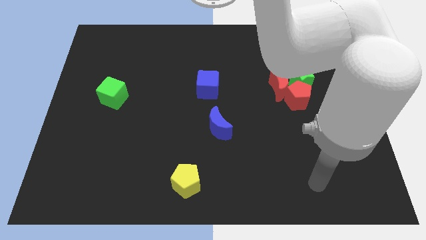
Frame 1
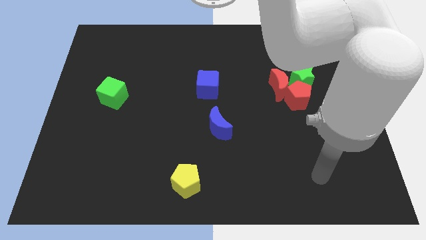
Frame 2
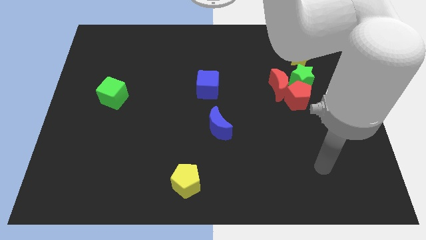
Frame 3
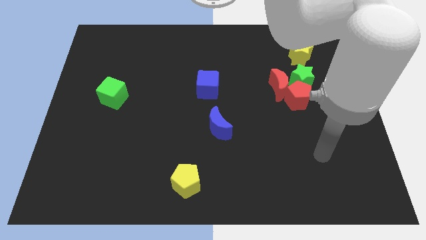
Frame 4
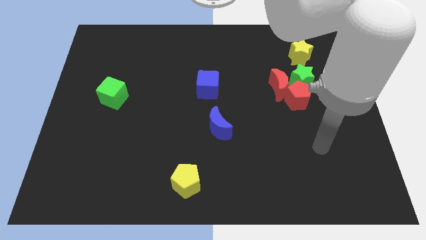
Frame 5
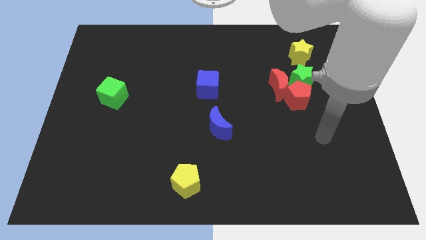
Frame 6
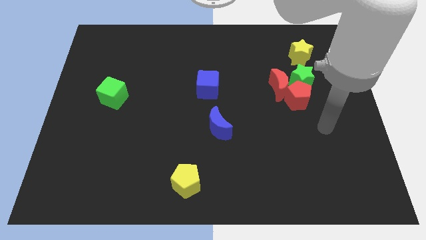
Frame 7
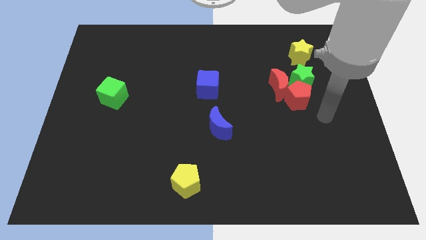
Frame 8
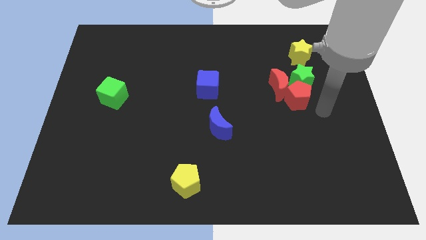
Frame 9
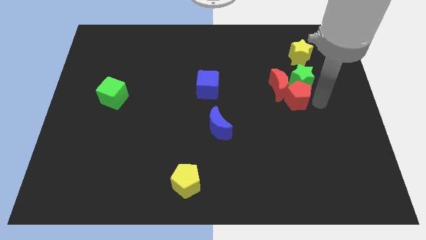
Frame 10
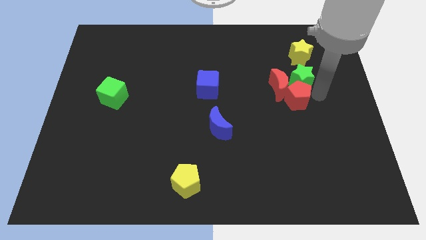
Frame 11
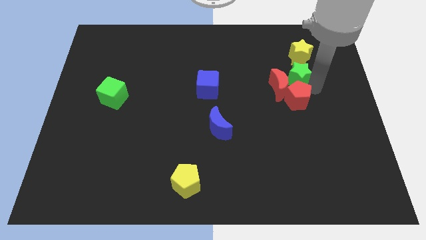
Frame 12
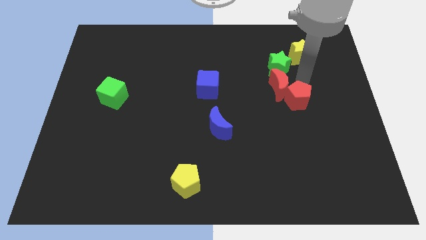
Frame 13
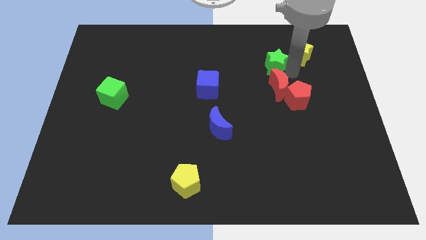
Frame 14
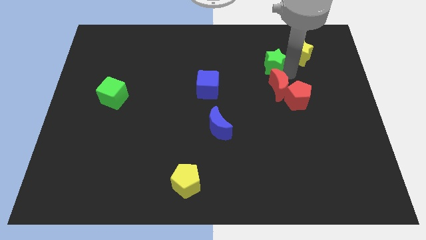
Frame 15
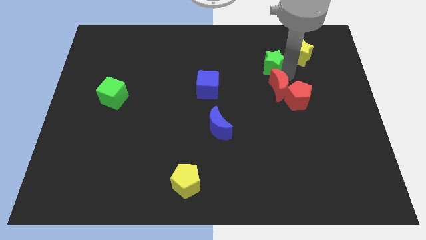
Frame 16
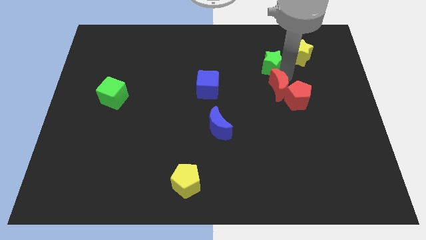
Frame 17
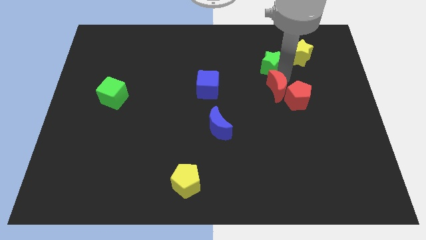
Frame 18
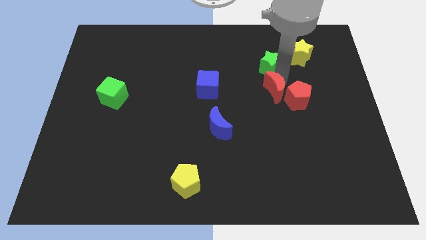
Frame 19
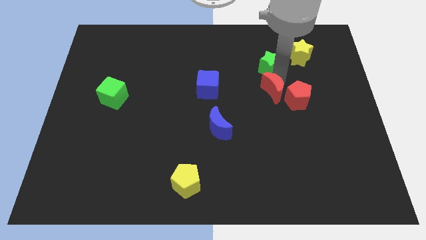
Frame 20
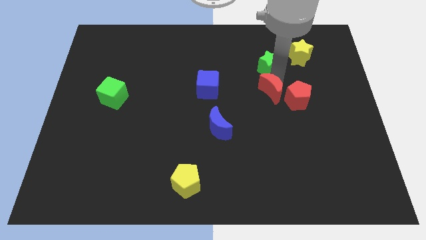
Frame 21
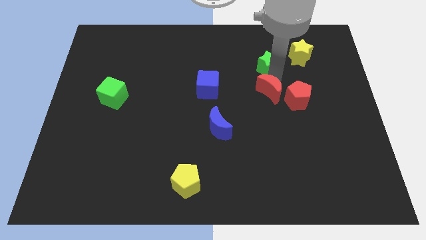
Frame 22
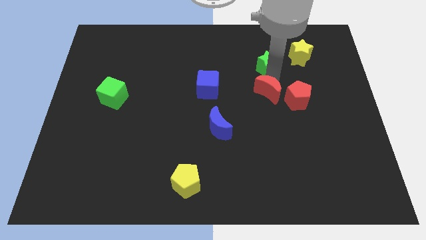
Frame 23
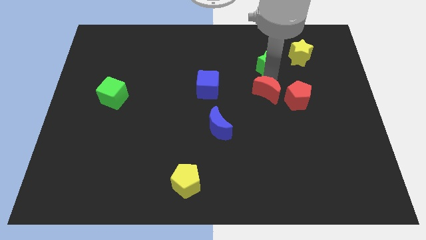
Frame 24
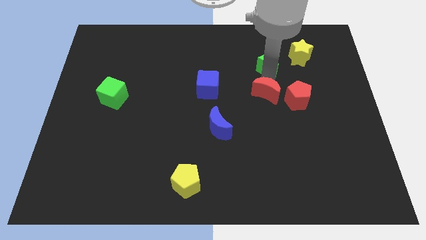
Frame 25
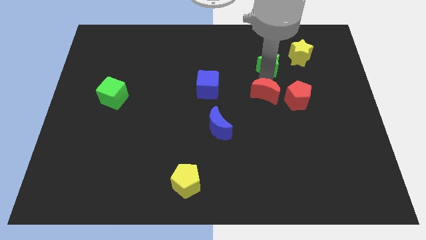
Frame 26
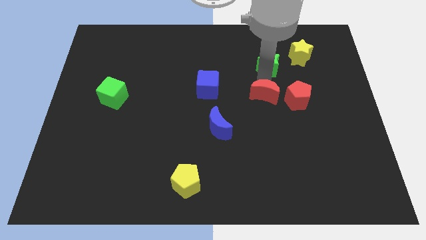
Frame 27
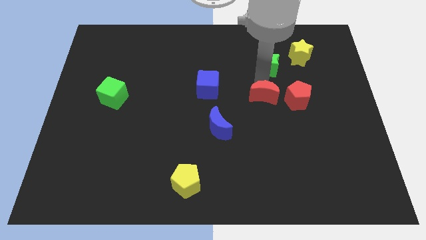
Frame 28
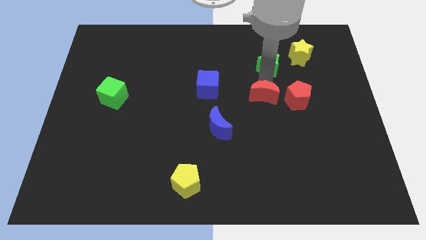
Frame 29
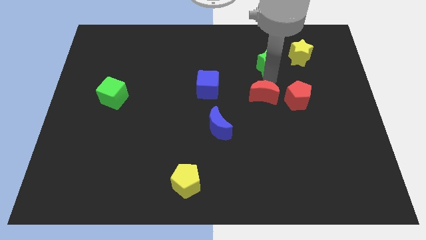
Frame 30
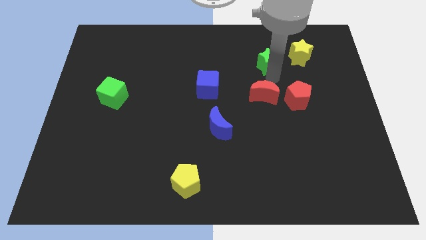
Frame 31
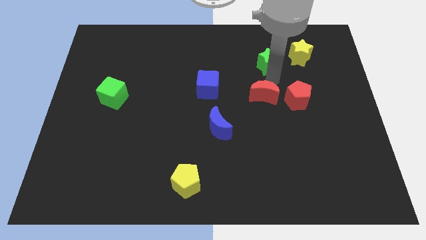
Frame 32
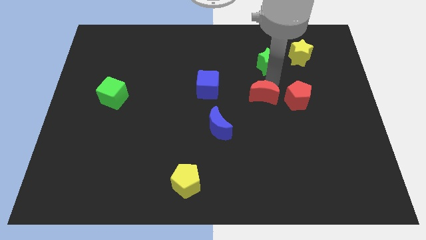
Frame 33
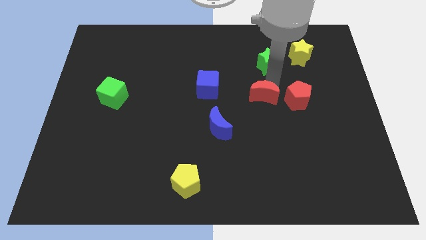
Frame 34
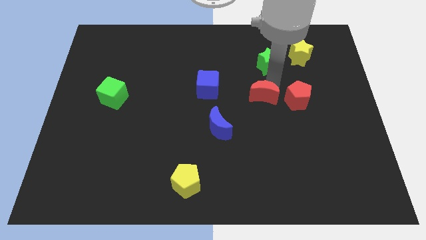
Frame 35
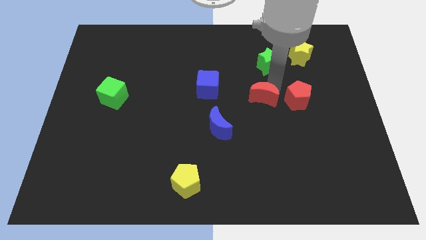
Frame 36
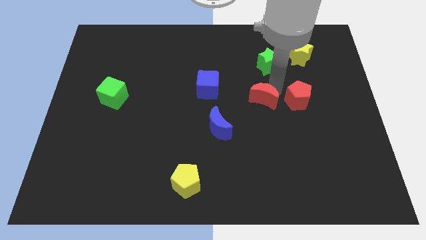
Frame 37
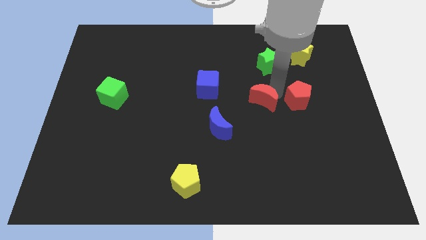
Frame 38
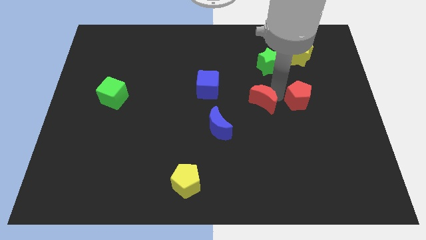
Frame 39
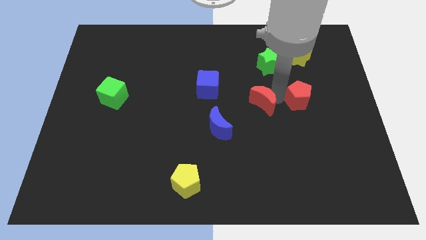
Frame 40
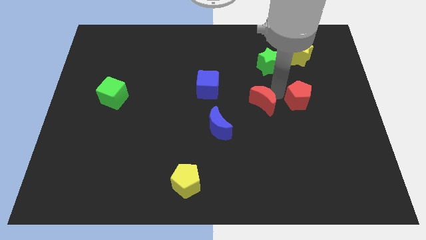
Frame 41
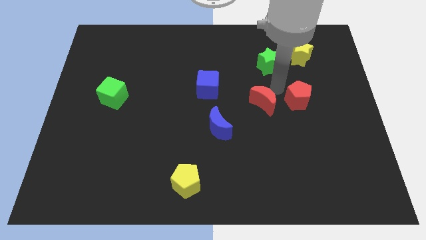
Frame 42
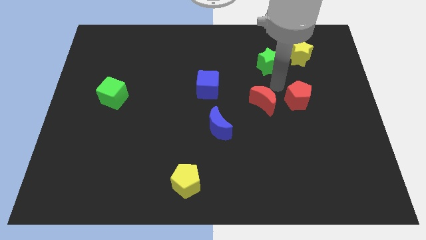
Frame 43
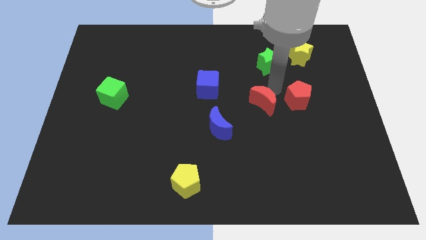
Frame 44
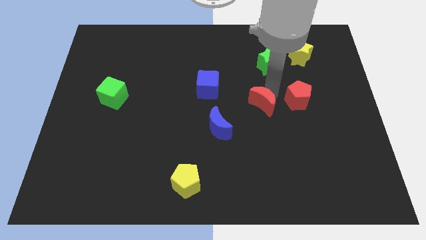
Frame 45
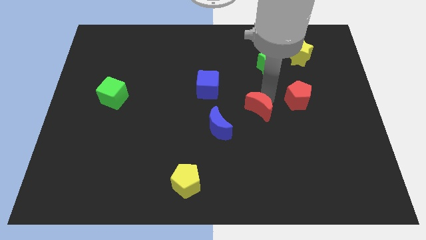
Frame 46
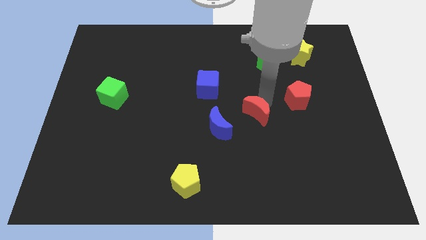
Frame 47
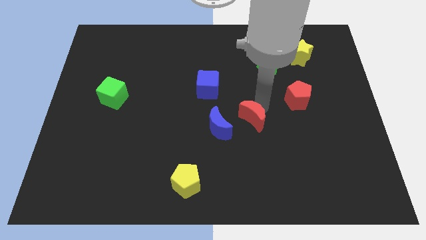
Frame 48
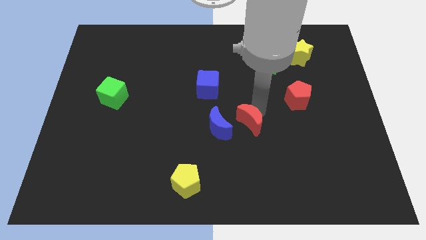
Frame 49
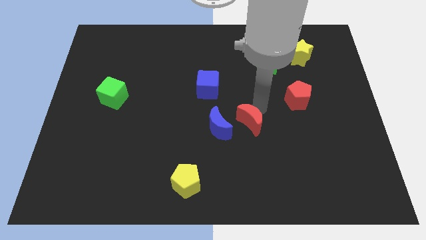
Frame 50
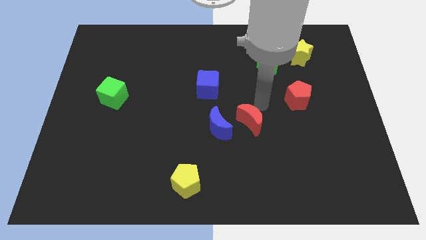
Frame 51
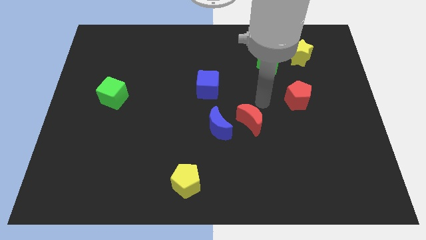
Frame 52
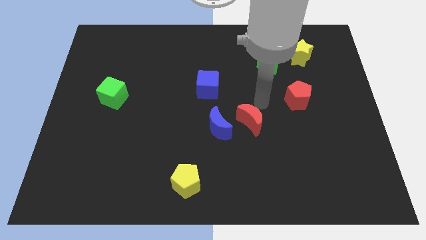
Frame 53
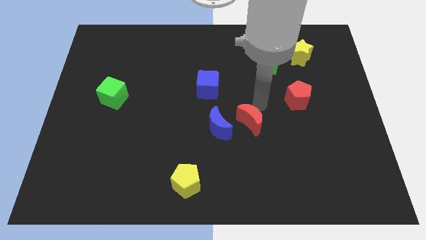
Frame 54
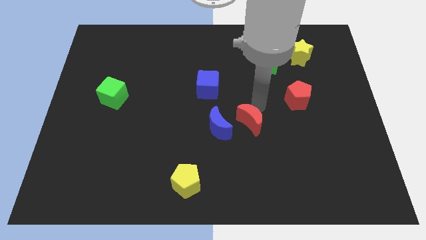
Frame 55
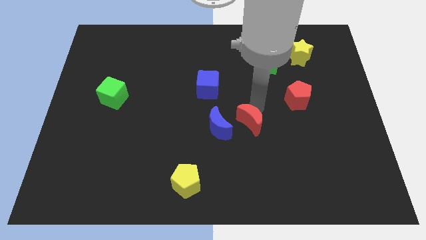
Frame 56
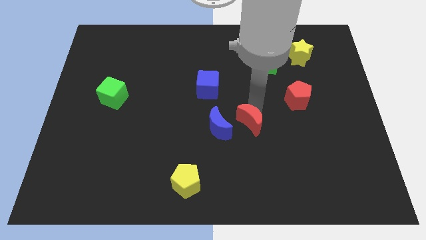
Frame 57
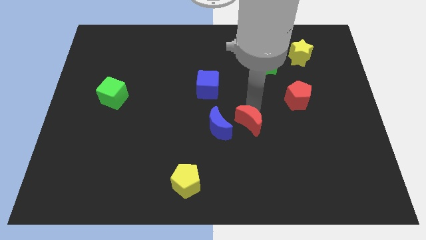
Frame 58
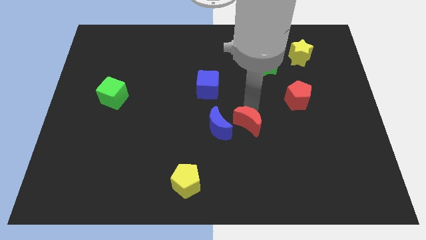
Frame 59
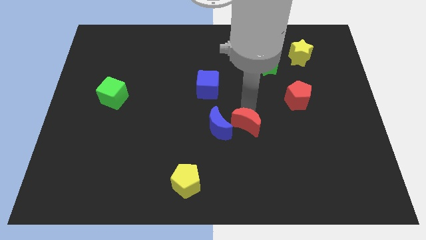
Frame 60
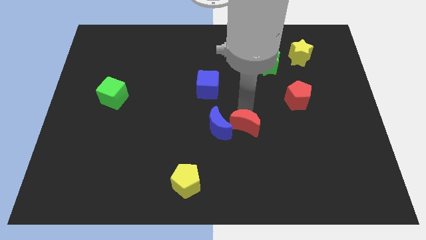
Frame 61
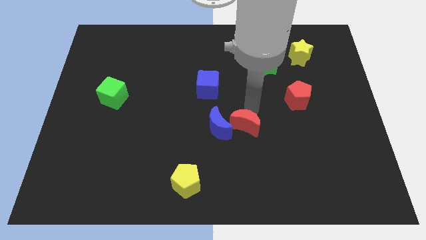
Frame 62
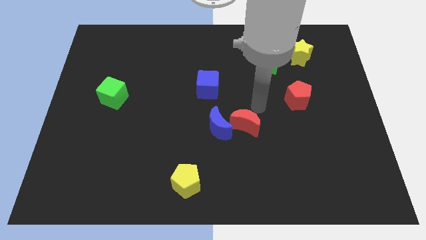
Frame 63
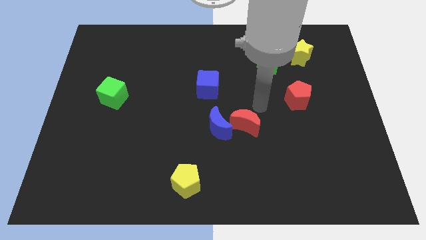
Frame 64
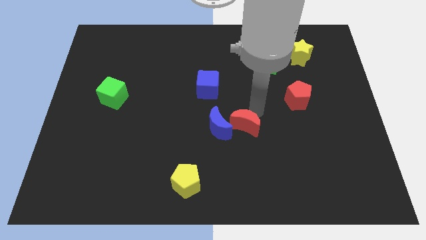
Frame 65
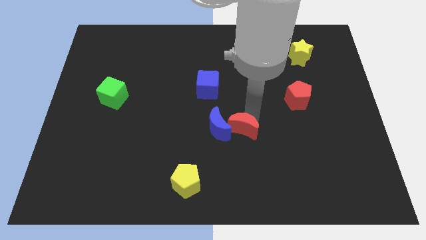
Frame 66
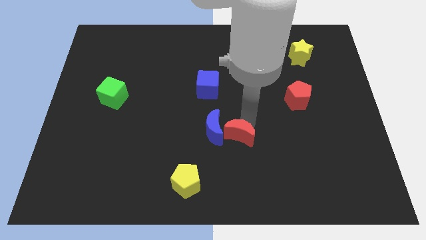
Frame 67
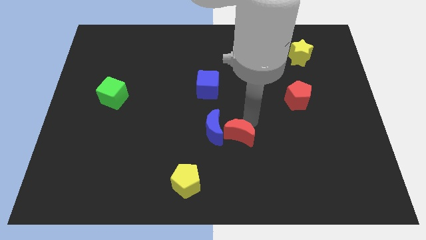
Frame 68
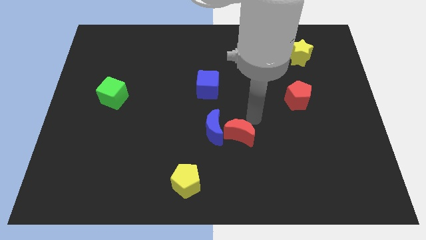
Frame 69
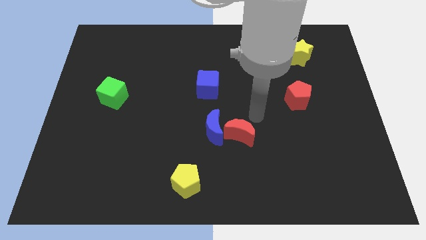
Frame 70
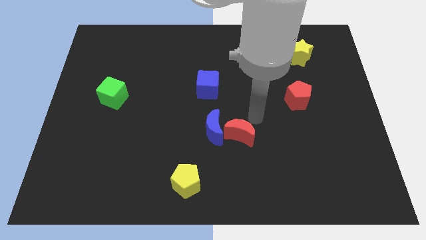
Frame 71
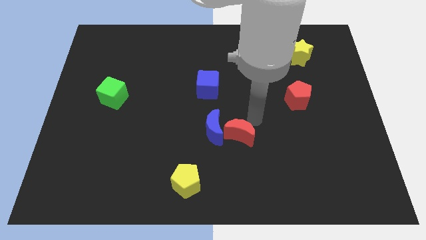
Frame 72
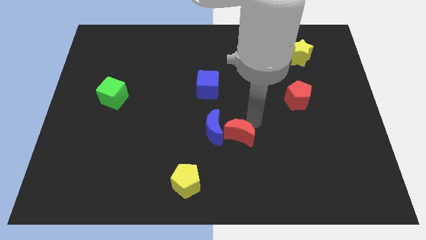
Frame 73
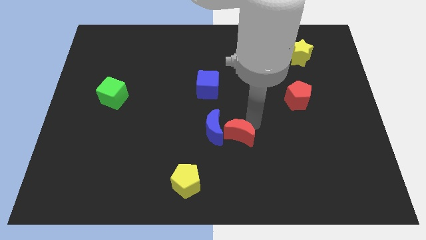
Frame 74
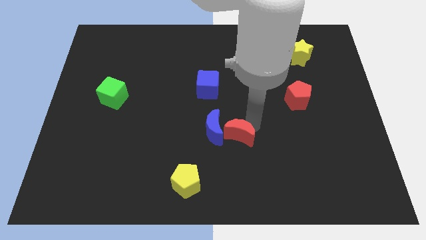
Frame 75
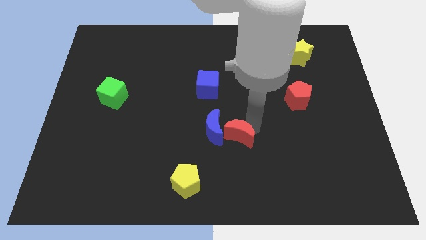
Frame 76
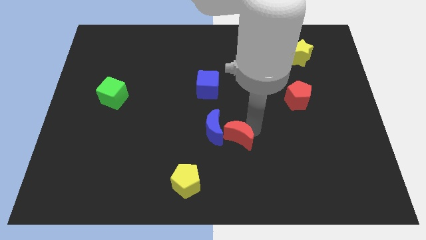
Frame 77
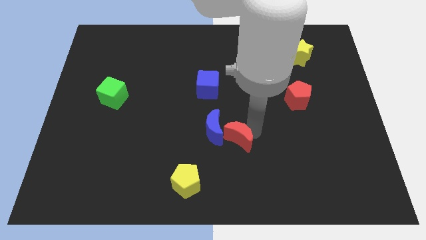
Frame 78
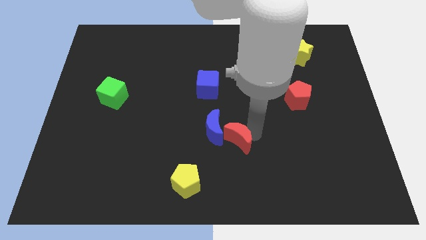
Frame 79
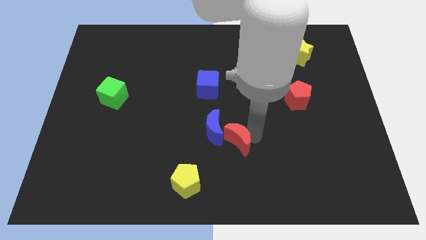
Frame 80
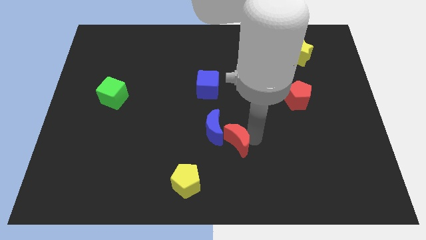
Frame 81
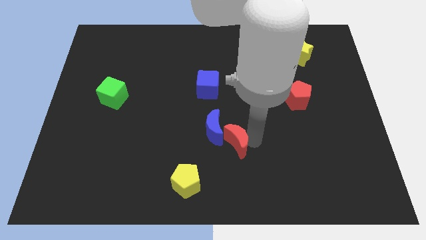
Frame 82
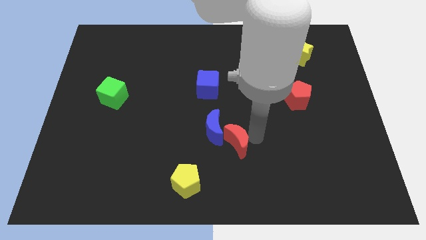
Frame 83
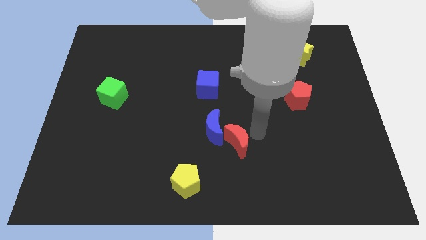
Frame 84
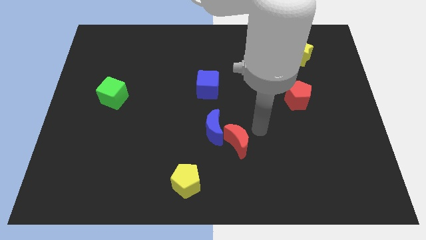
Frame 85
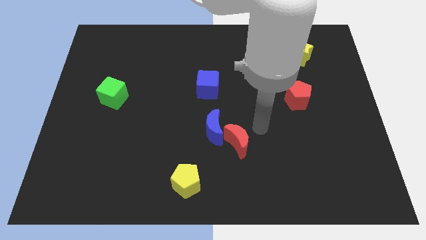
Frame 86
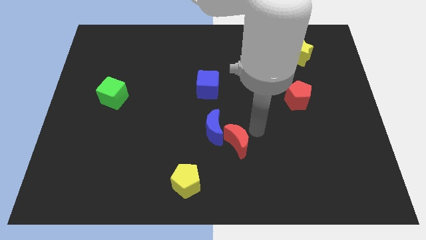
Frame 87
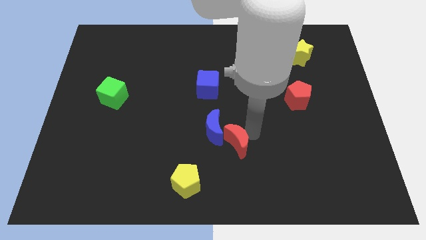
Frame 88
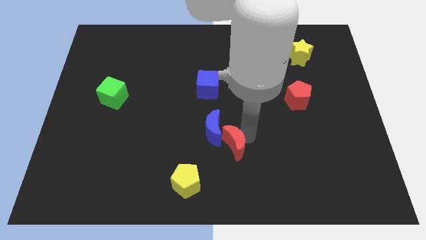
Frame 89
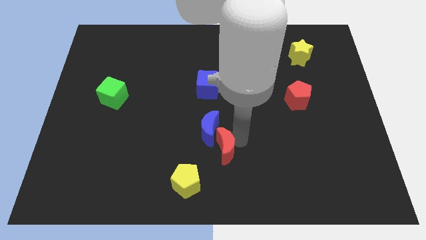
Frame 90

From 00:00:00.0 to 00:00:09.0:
put the red moon to the bottom side of the blue moon
